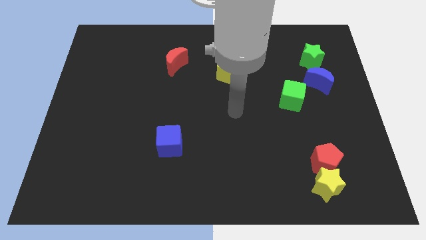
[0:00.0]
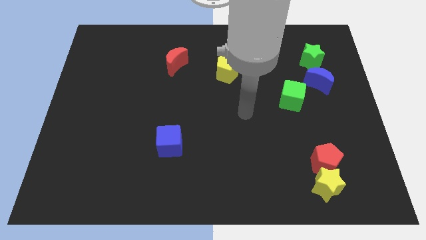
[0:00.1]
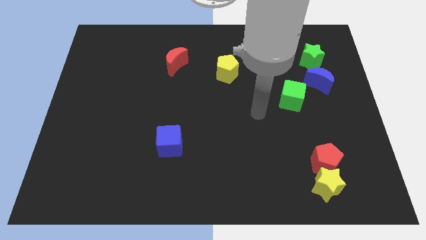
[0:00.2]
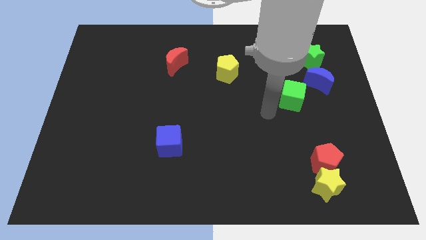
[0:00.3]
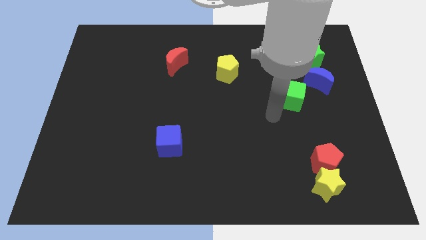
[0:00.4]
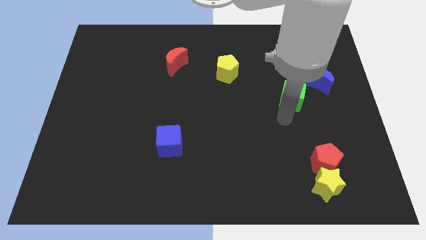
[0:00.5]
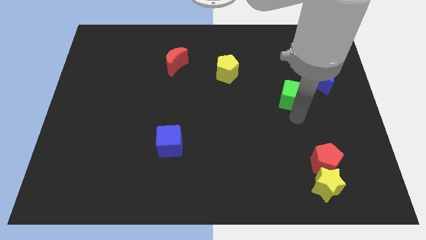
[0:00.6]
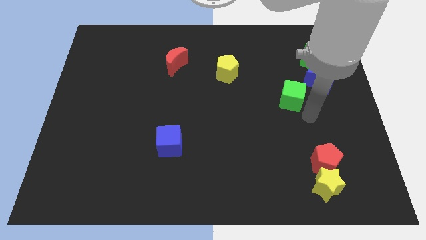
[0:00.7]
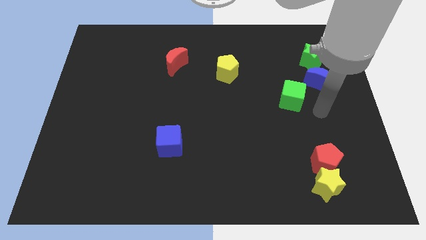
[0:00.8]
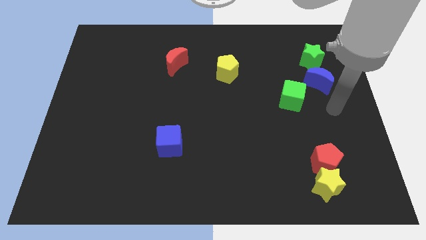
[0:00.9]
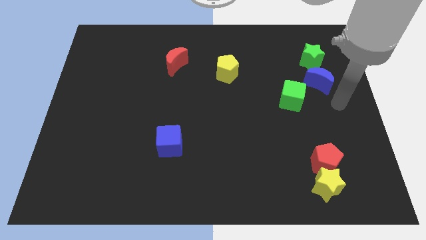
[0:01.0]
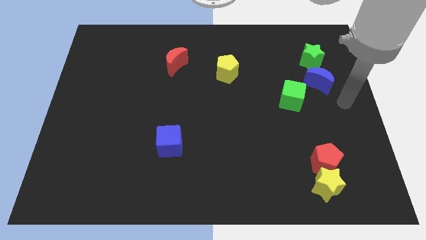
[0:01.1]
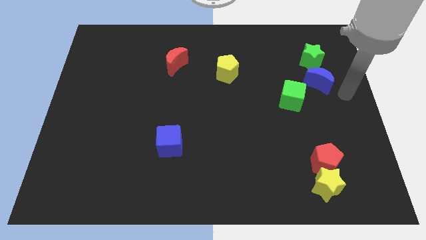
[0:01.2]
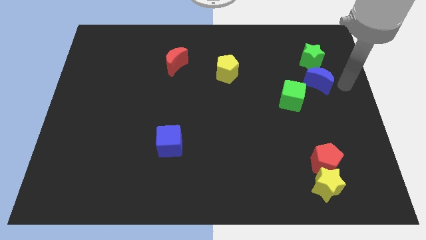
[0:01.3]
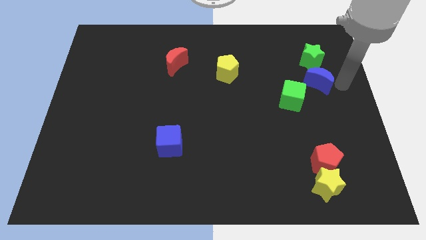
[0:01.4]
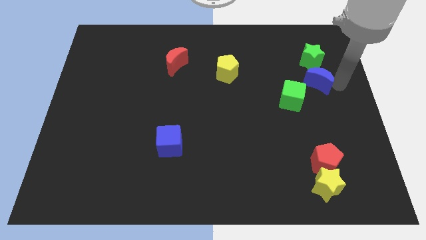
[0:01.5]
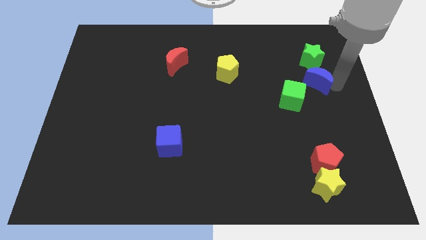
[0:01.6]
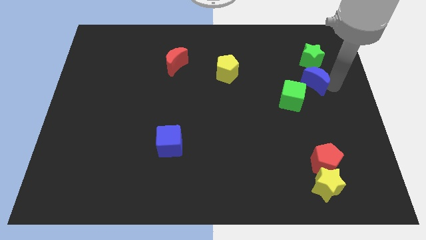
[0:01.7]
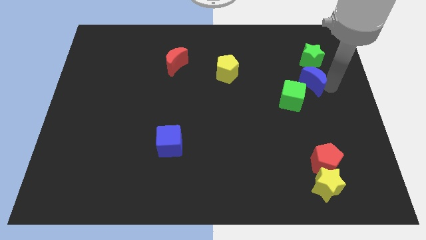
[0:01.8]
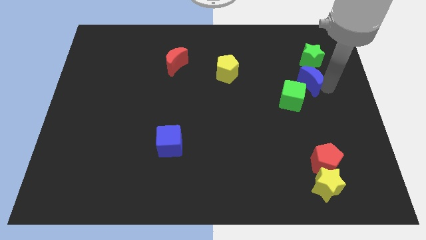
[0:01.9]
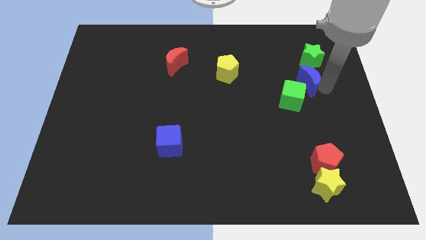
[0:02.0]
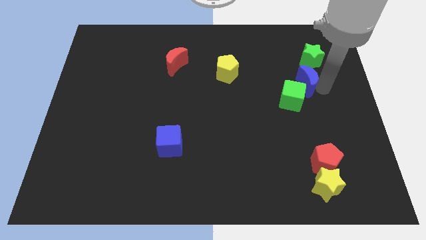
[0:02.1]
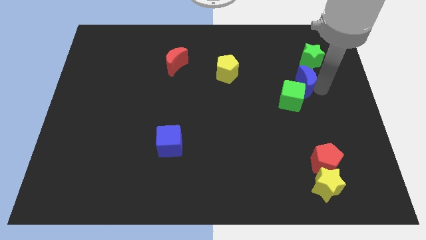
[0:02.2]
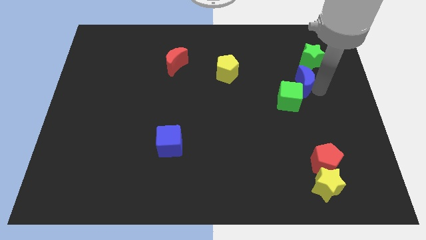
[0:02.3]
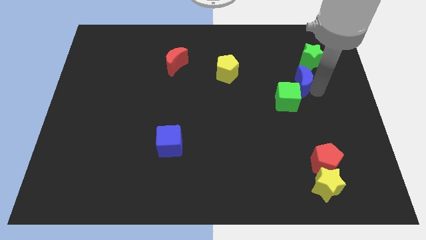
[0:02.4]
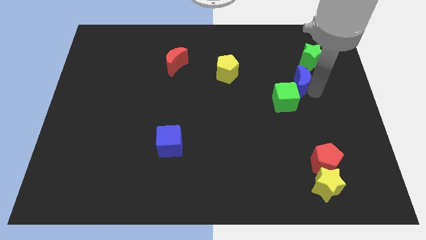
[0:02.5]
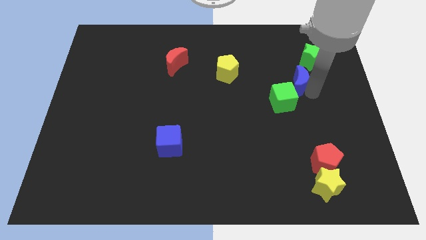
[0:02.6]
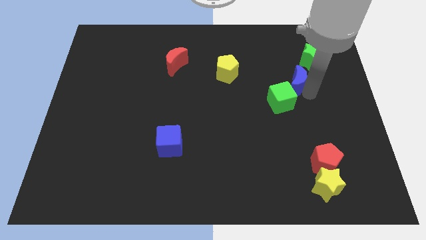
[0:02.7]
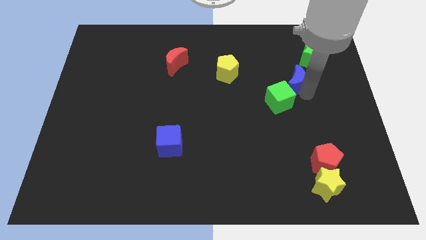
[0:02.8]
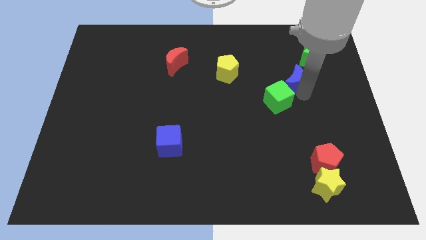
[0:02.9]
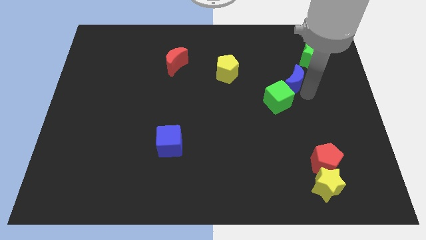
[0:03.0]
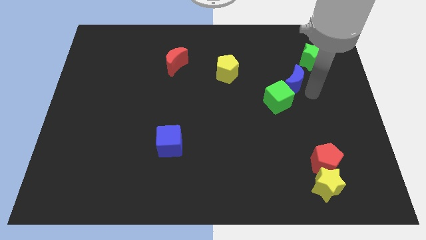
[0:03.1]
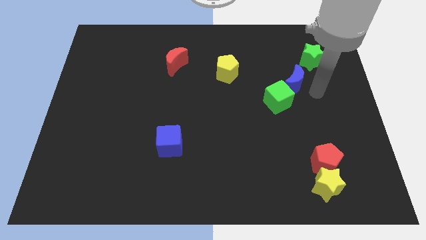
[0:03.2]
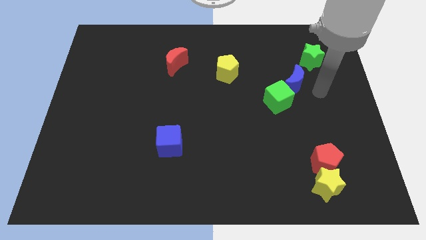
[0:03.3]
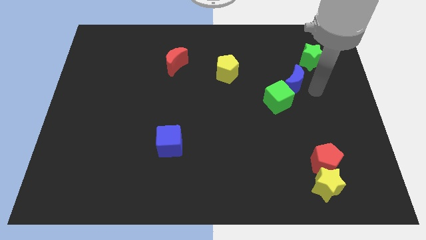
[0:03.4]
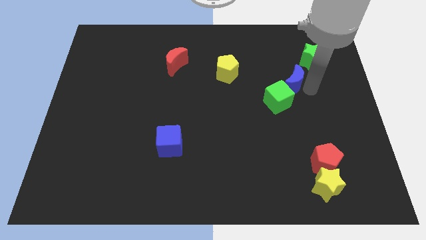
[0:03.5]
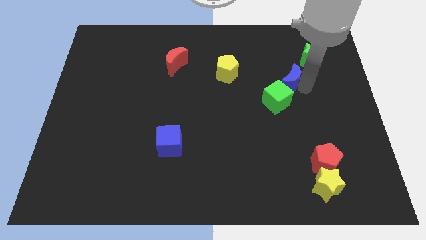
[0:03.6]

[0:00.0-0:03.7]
move the blue moon left a bit

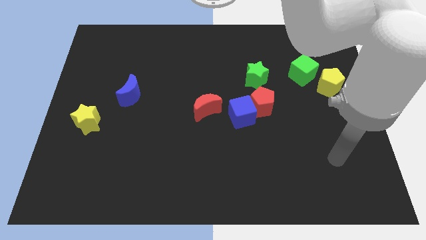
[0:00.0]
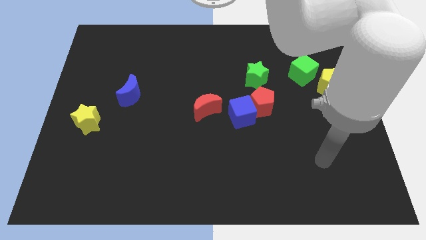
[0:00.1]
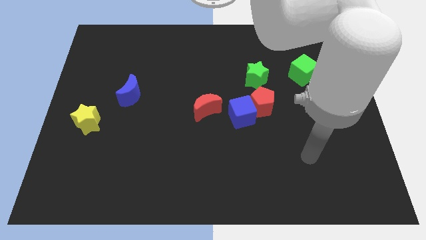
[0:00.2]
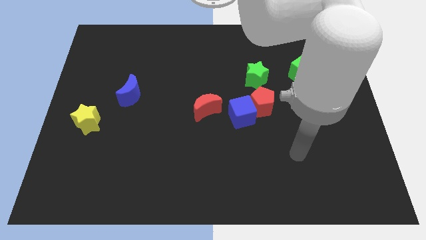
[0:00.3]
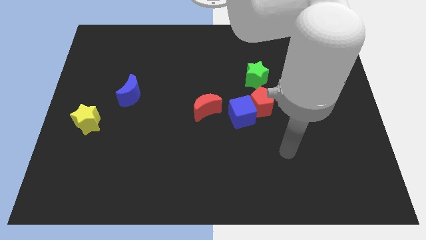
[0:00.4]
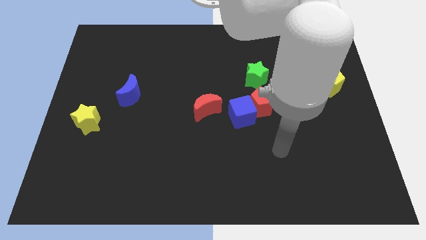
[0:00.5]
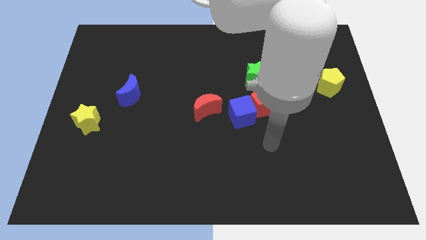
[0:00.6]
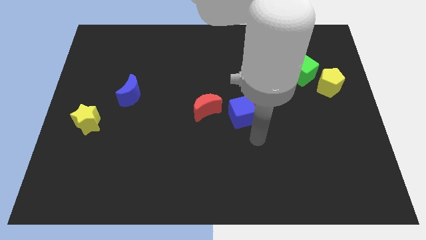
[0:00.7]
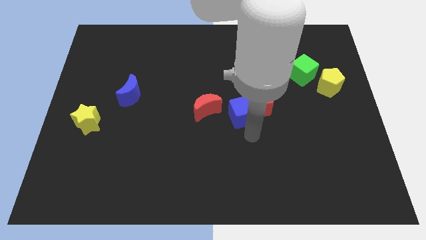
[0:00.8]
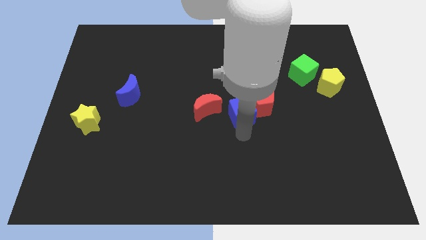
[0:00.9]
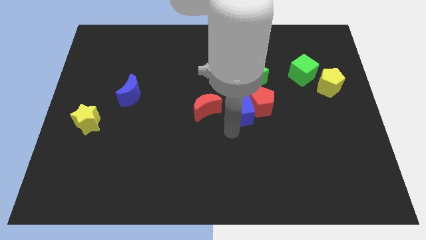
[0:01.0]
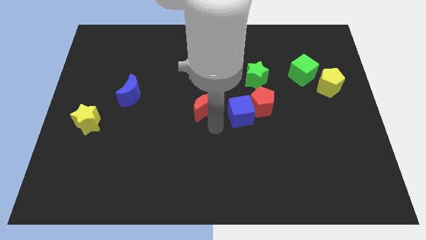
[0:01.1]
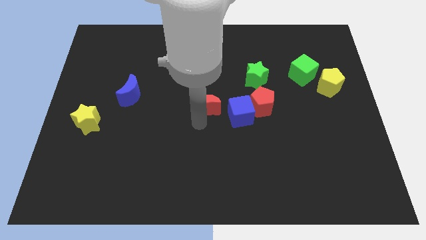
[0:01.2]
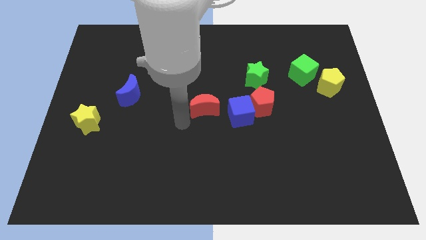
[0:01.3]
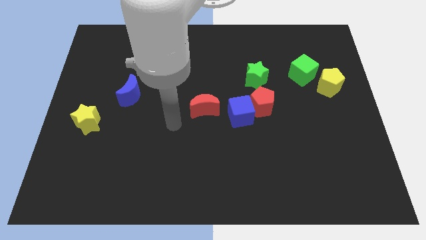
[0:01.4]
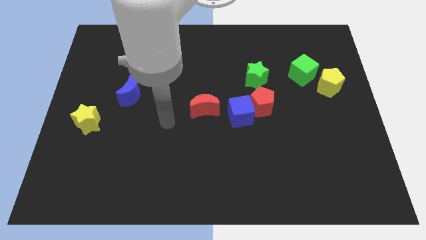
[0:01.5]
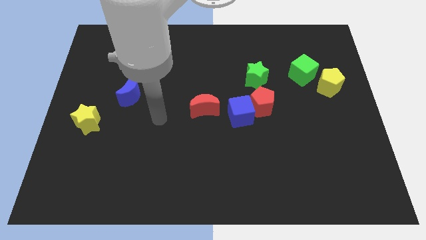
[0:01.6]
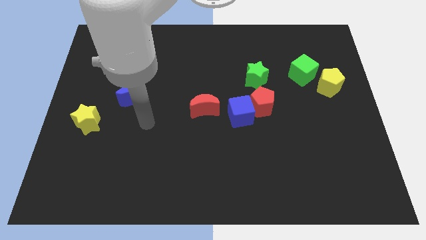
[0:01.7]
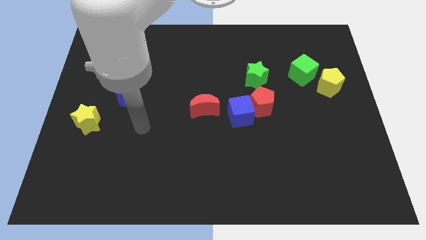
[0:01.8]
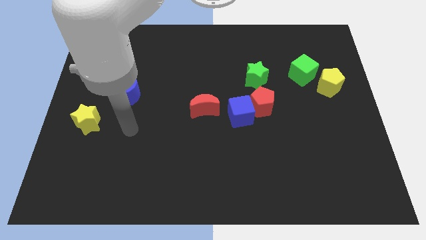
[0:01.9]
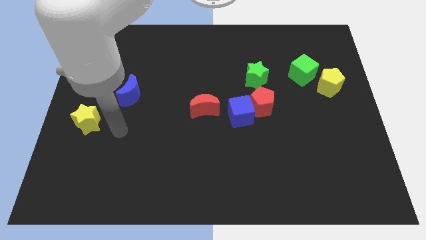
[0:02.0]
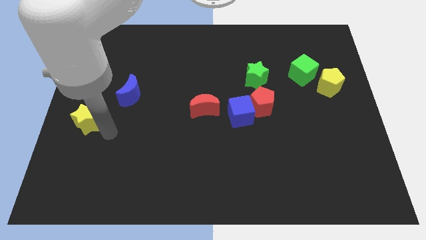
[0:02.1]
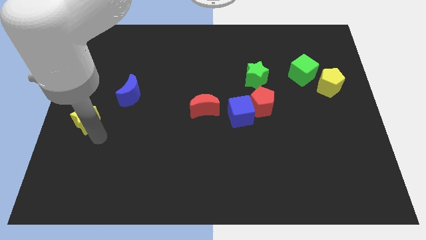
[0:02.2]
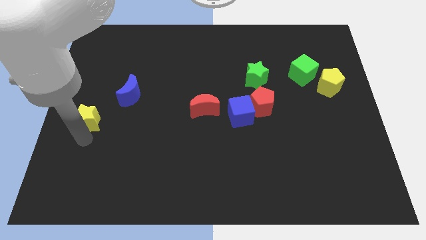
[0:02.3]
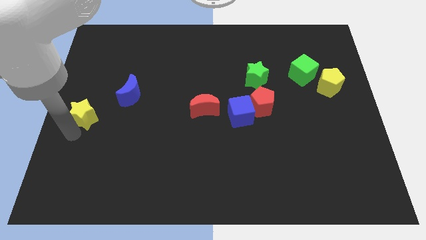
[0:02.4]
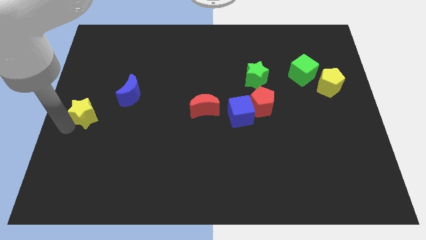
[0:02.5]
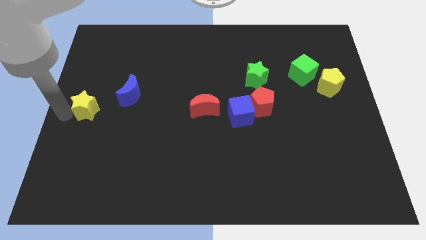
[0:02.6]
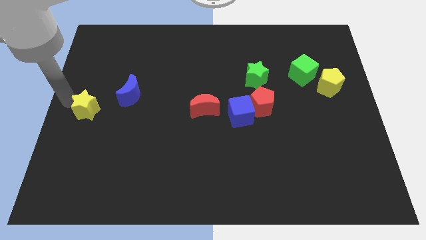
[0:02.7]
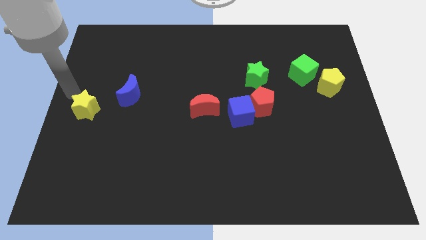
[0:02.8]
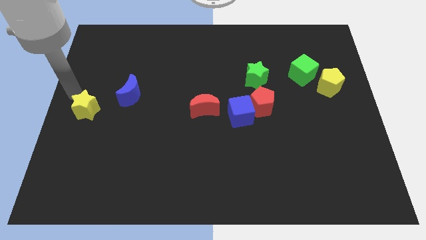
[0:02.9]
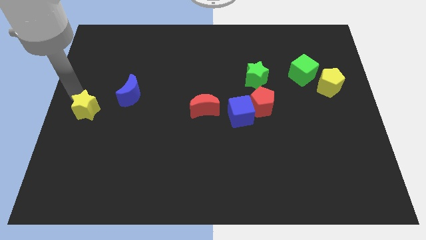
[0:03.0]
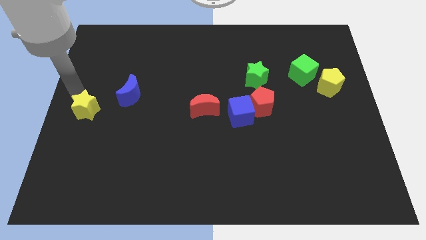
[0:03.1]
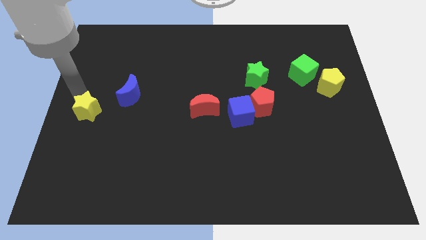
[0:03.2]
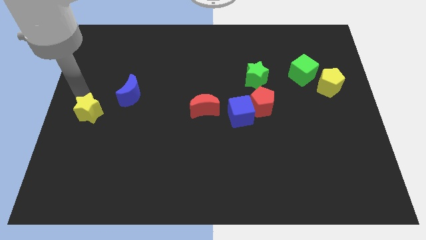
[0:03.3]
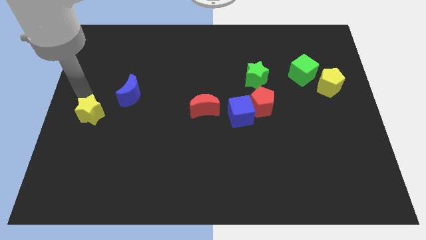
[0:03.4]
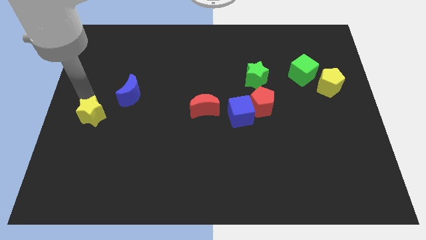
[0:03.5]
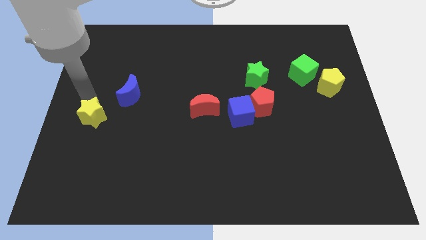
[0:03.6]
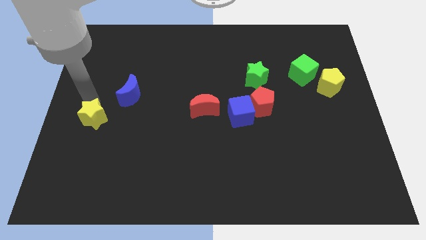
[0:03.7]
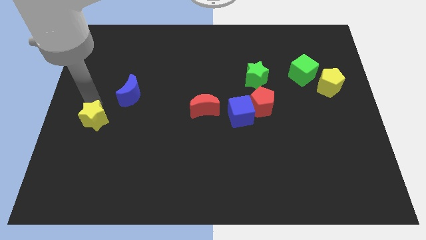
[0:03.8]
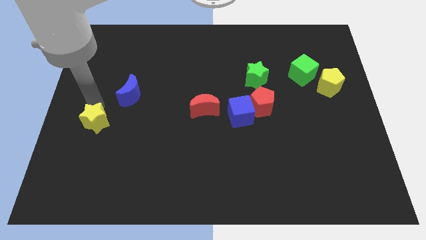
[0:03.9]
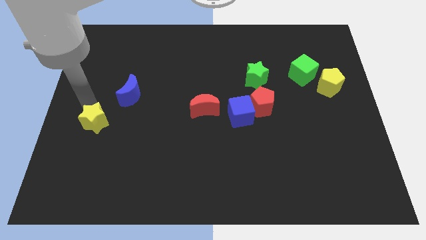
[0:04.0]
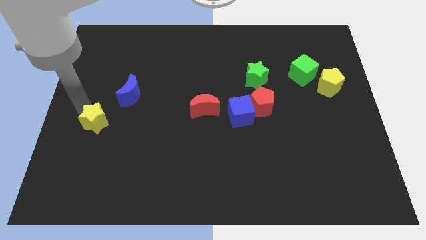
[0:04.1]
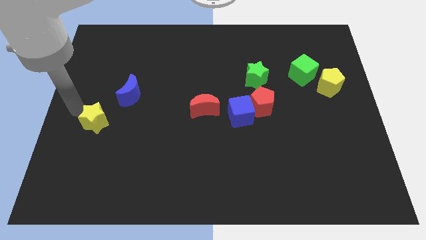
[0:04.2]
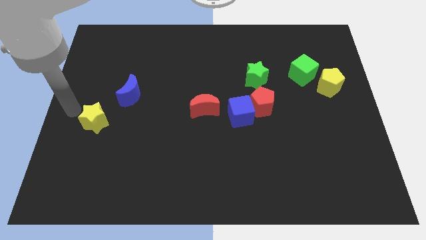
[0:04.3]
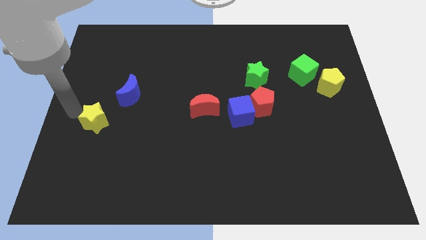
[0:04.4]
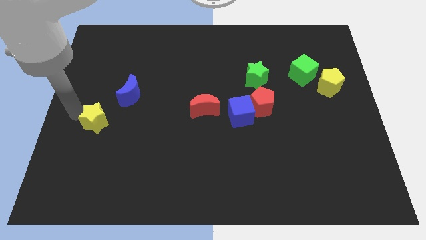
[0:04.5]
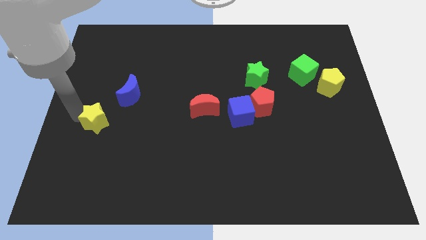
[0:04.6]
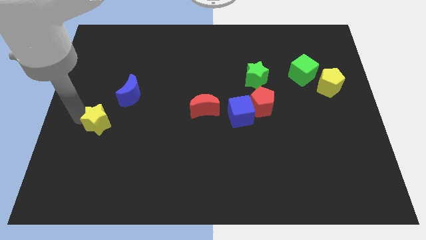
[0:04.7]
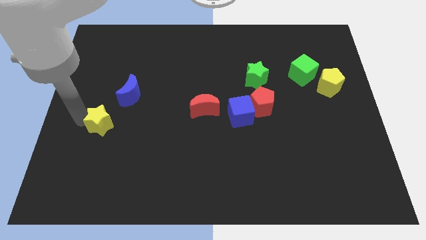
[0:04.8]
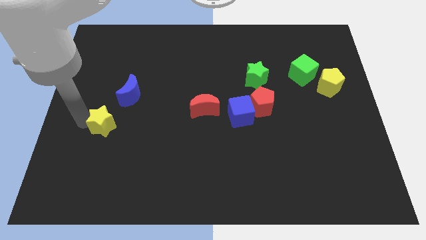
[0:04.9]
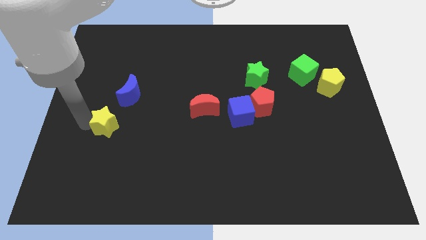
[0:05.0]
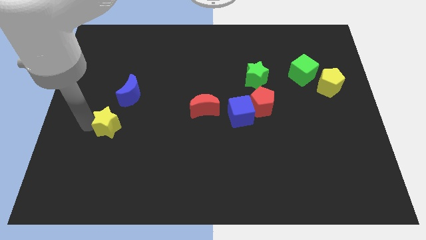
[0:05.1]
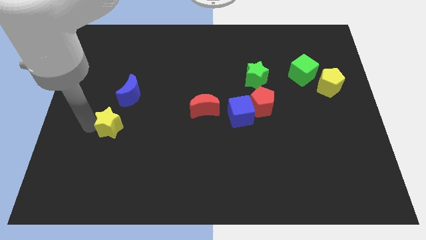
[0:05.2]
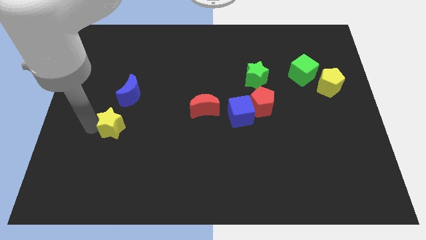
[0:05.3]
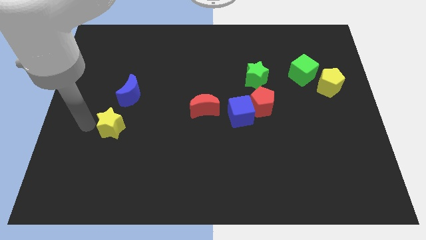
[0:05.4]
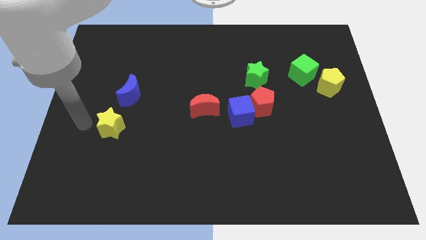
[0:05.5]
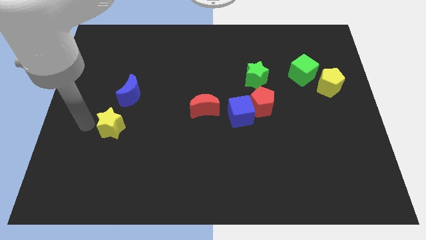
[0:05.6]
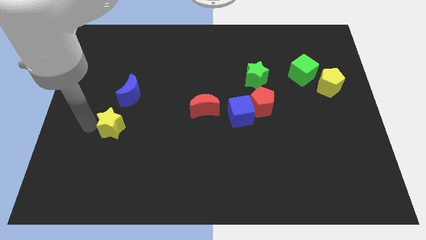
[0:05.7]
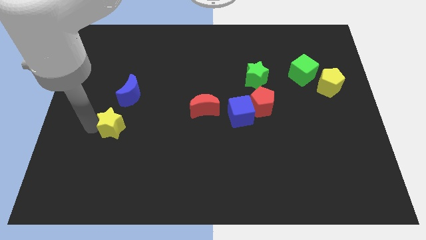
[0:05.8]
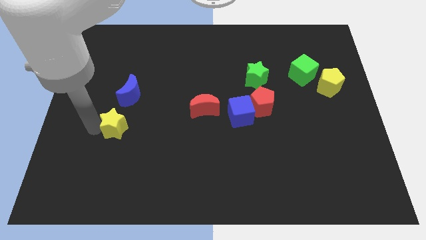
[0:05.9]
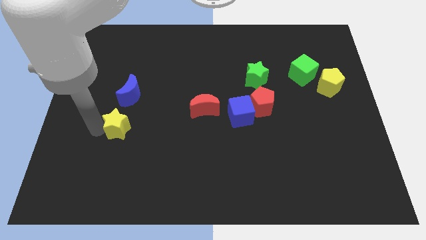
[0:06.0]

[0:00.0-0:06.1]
move the yellow star slightly right
